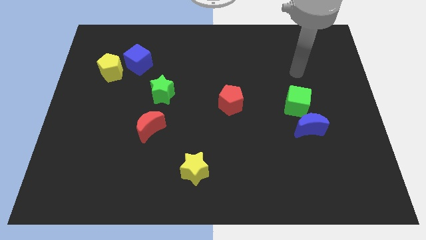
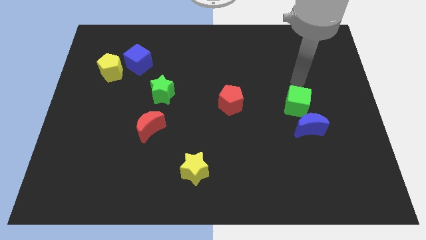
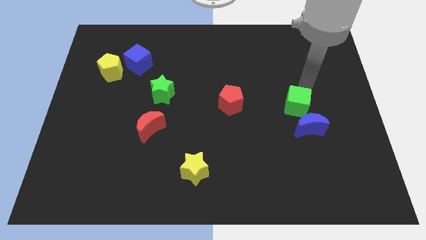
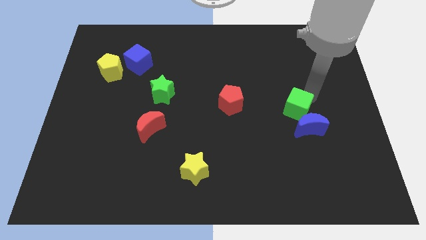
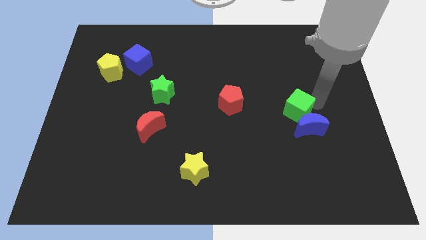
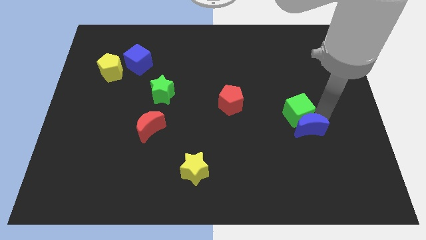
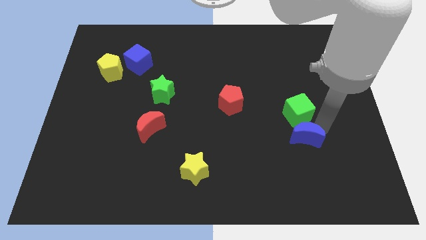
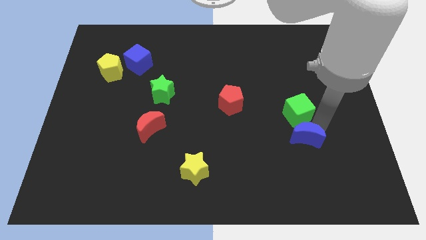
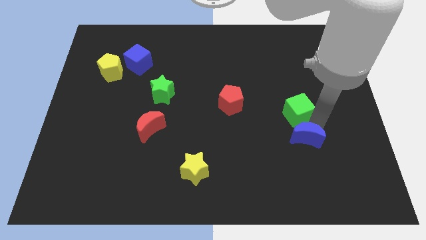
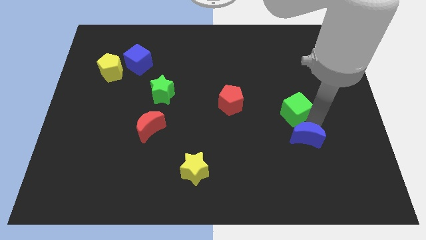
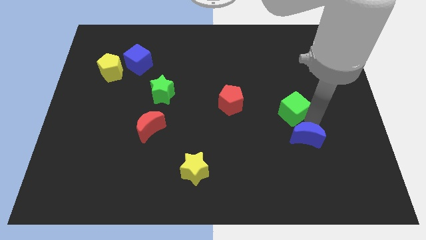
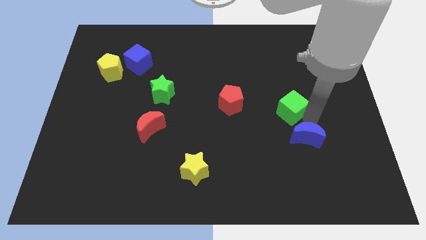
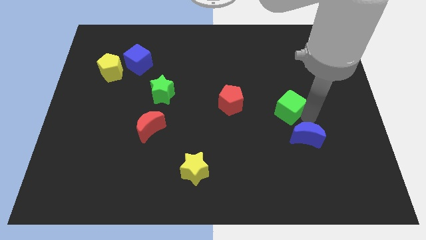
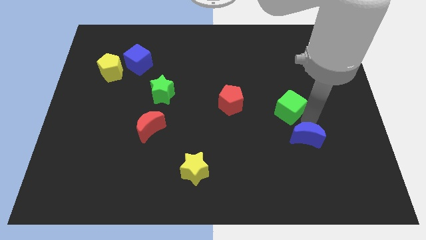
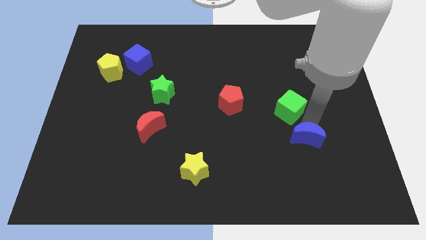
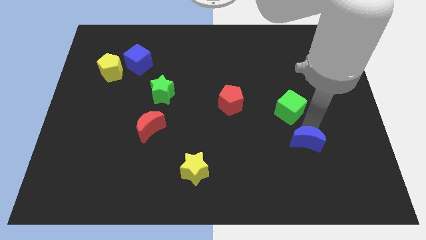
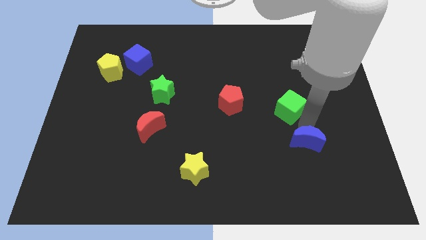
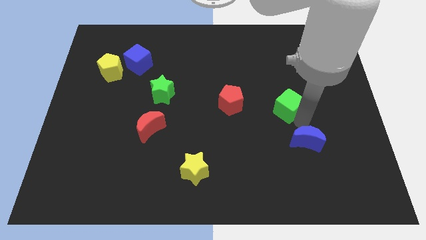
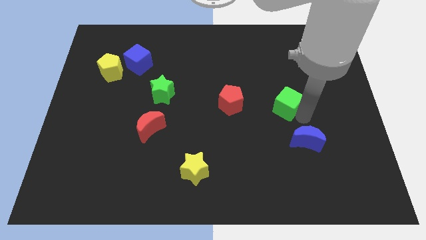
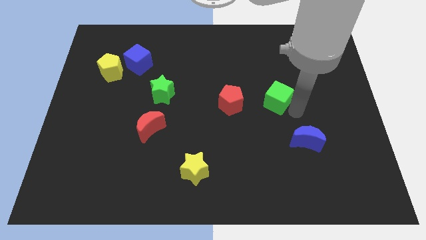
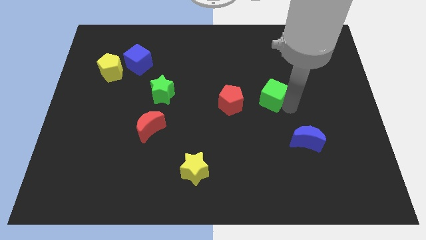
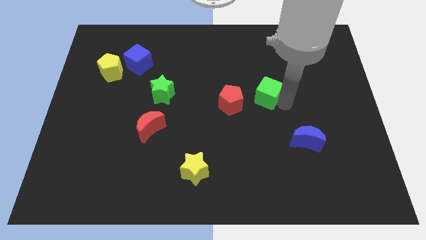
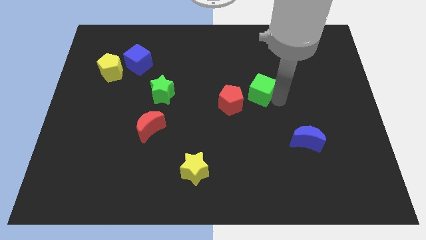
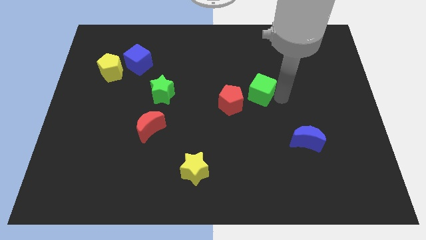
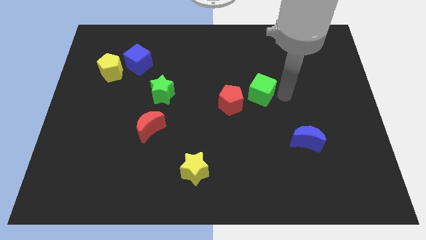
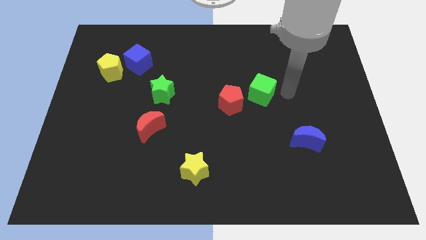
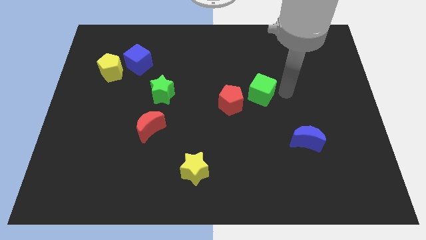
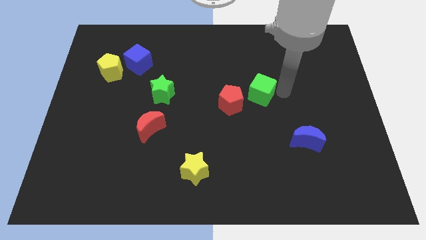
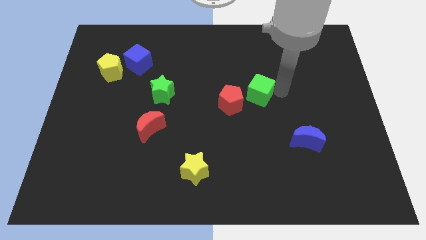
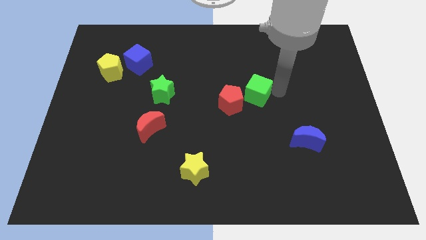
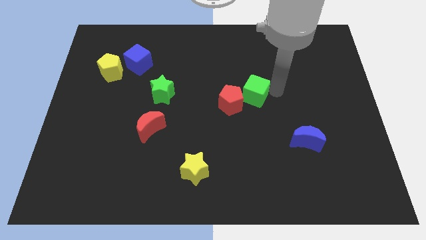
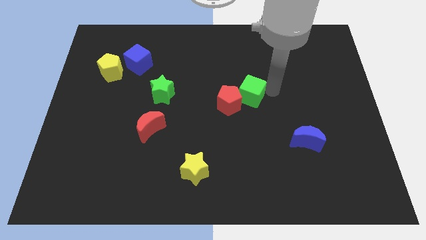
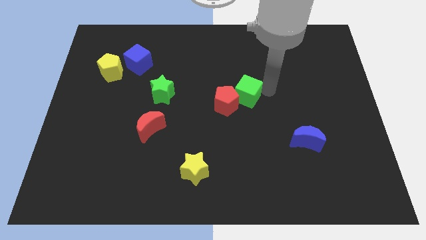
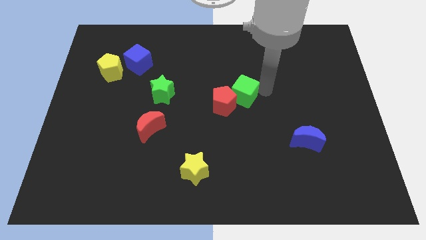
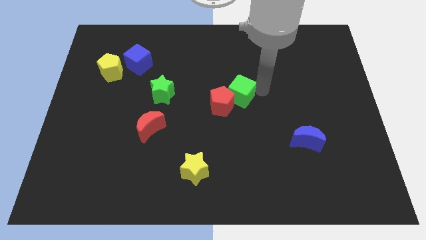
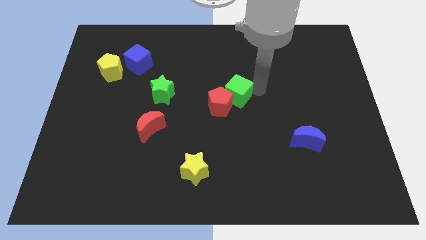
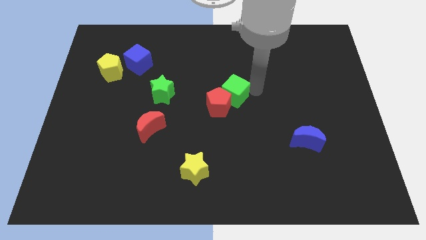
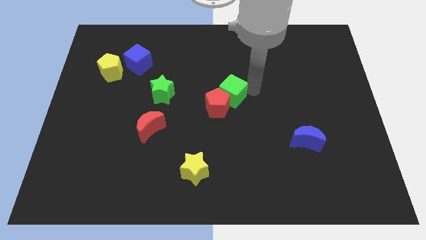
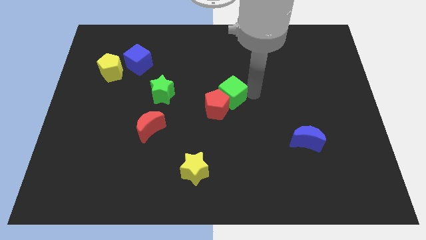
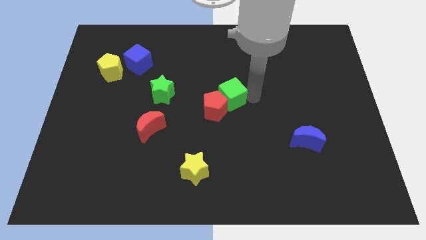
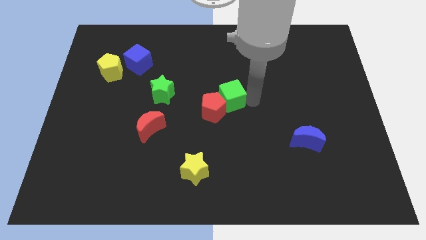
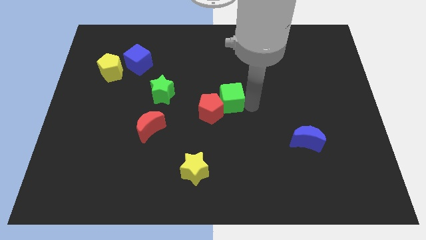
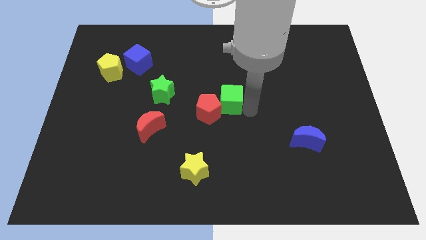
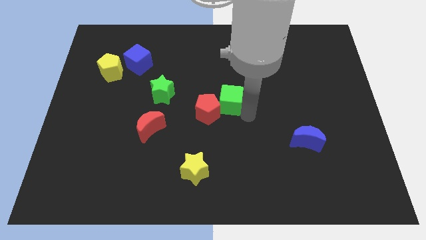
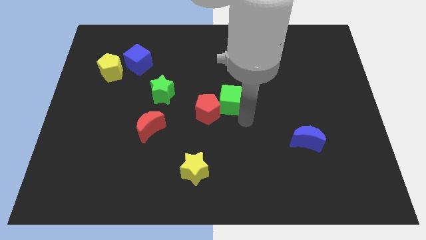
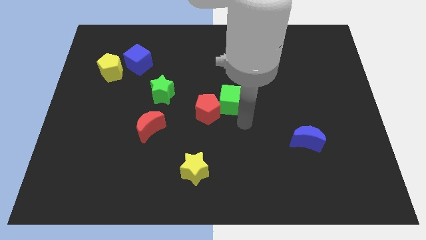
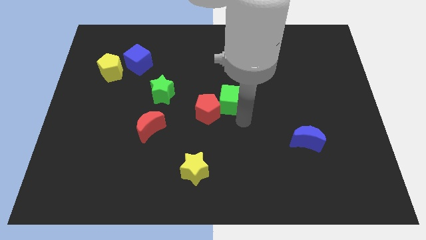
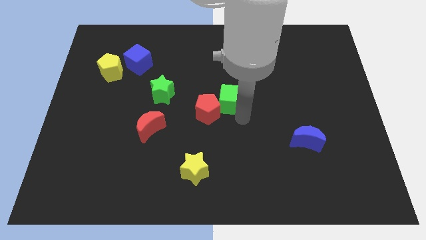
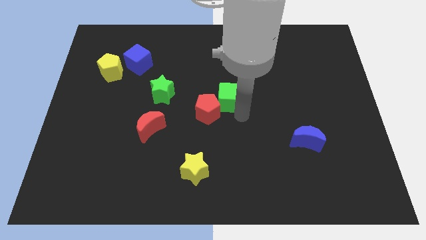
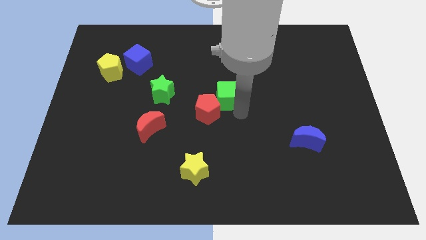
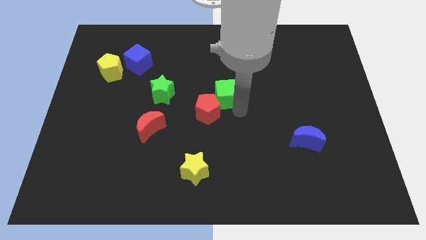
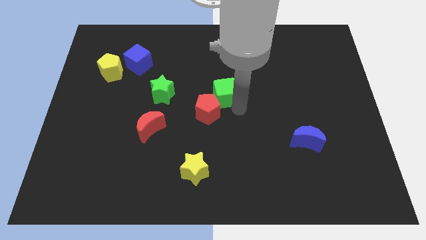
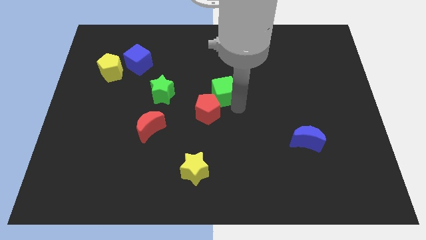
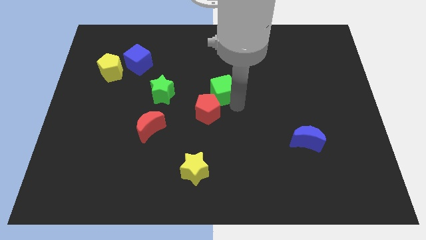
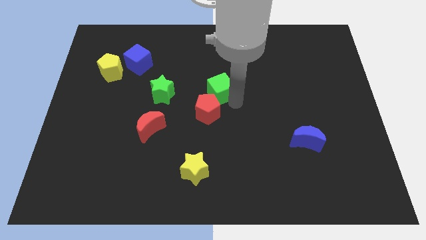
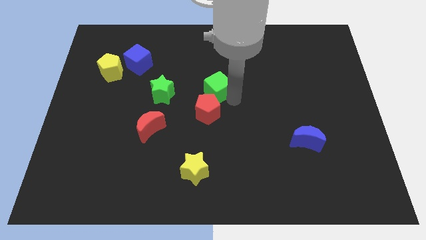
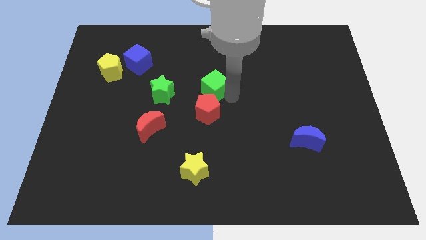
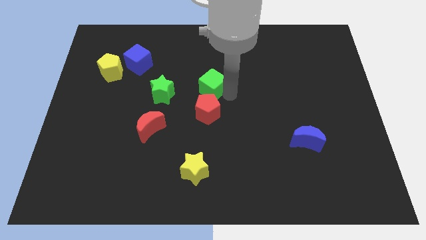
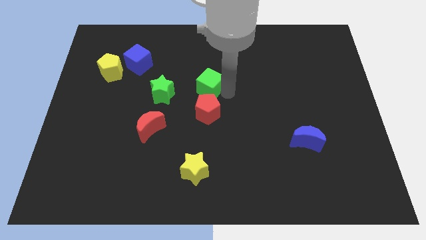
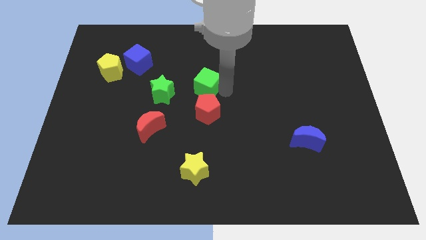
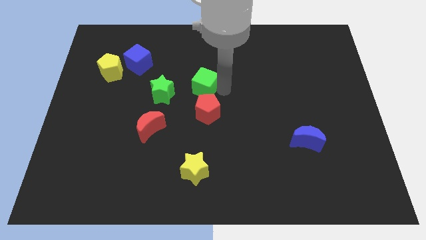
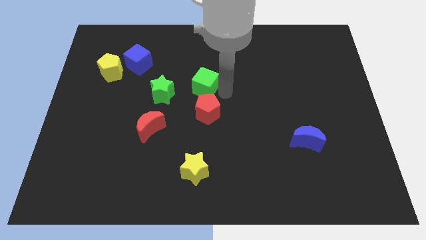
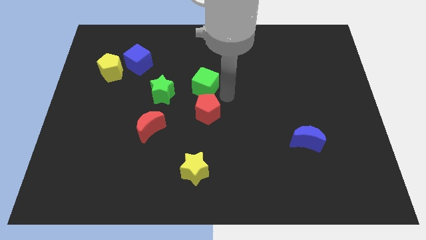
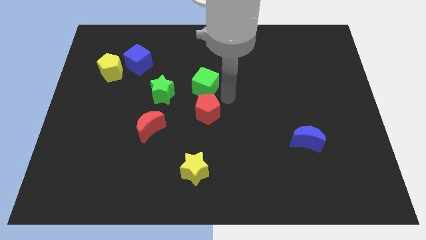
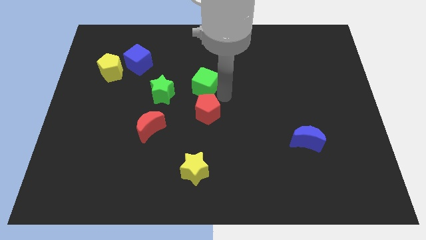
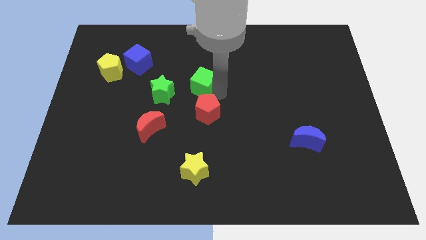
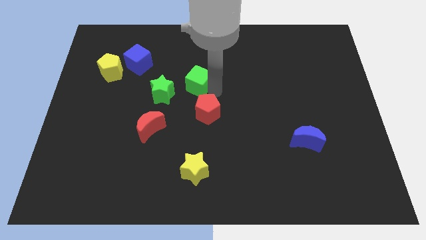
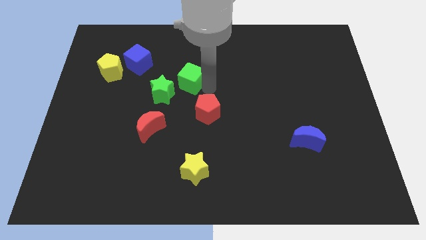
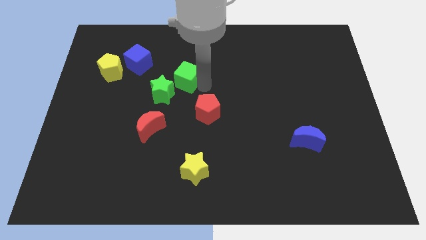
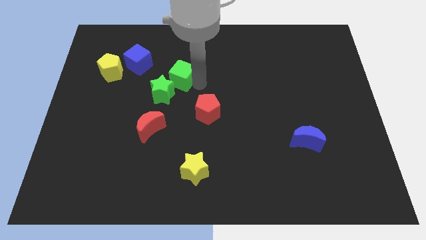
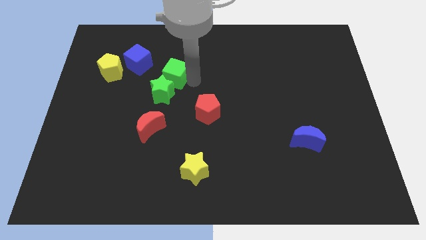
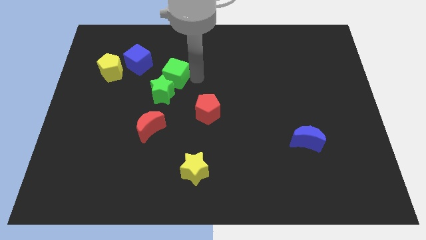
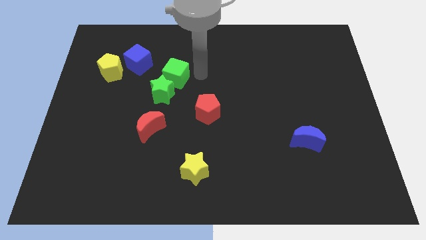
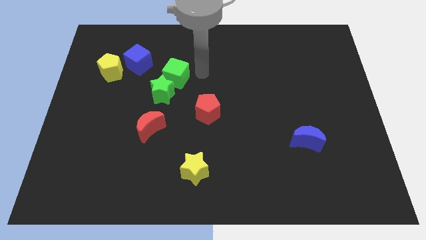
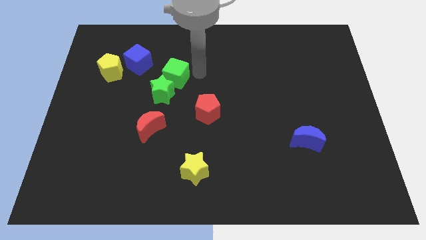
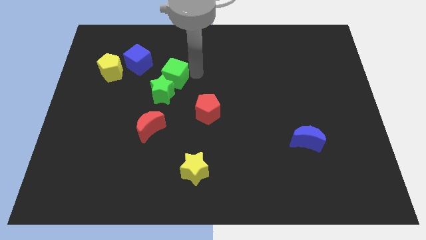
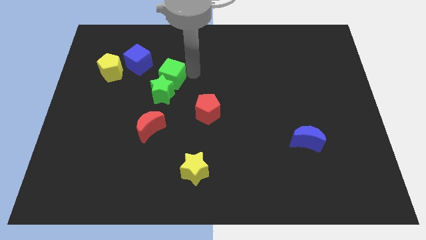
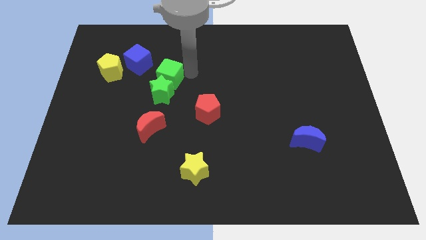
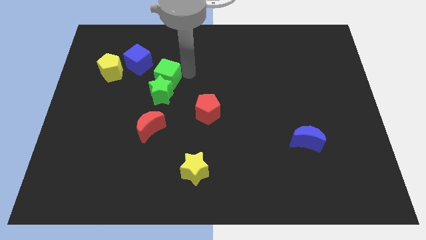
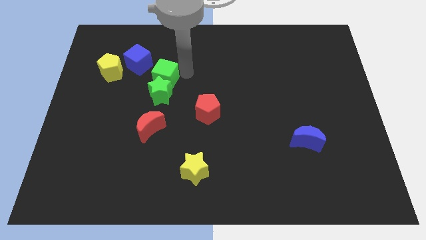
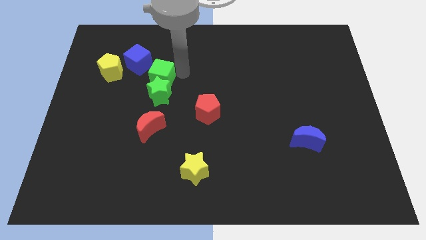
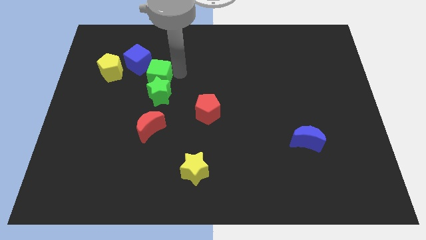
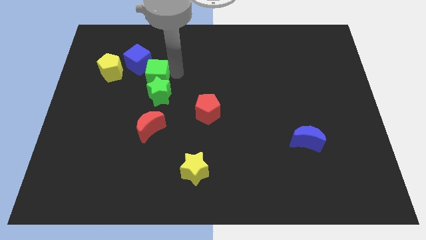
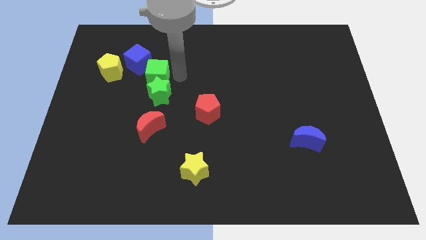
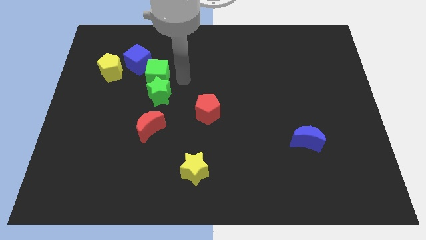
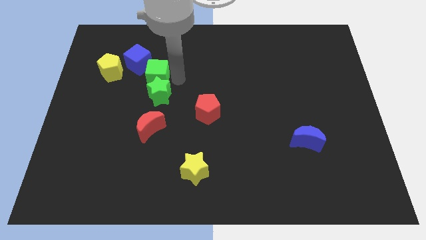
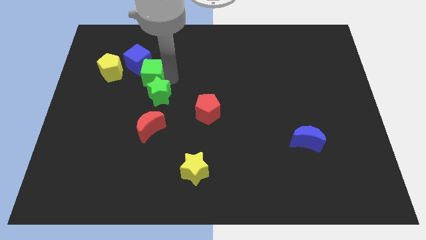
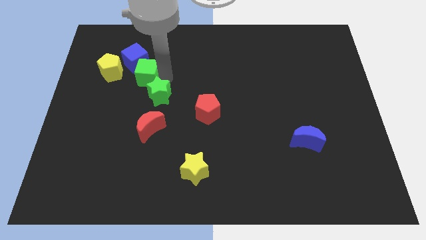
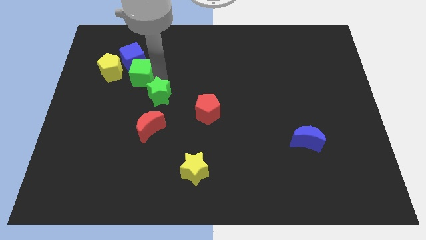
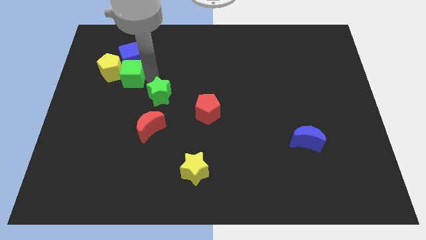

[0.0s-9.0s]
put the green cube close to the yellow pentagon
